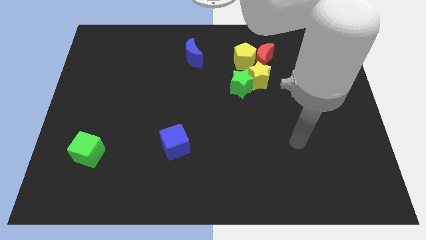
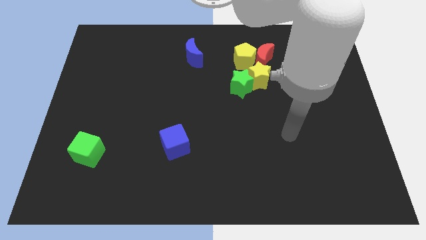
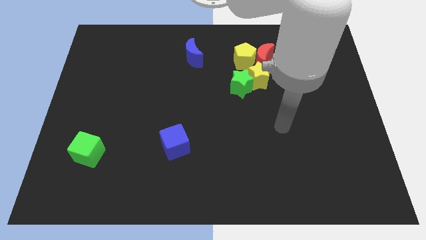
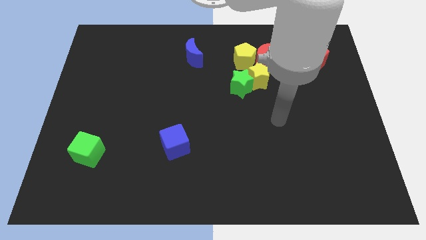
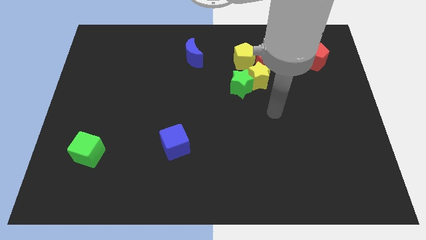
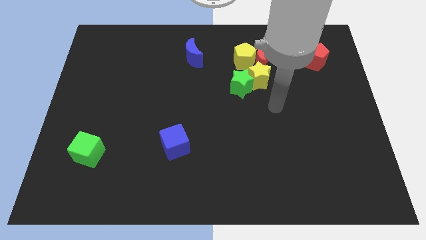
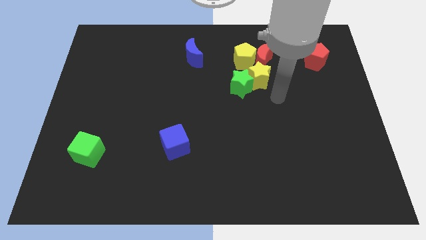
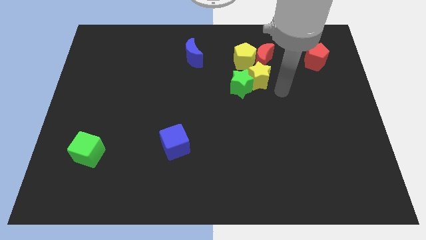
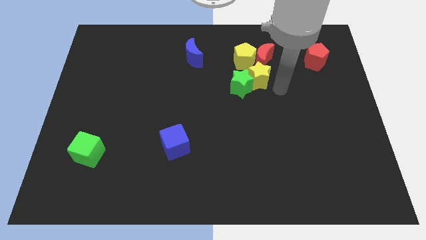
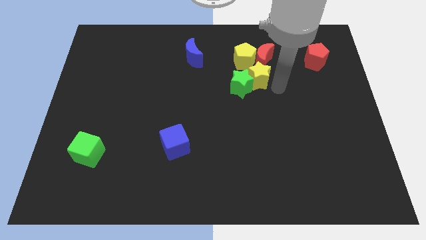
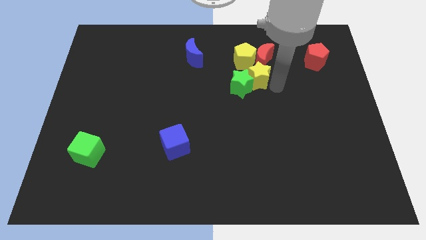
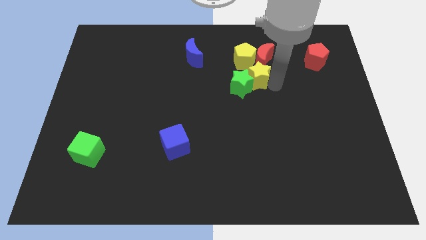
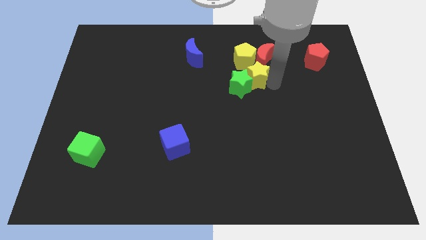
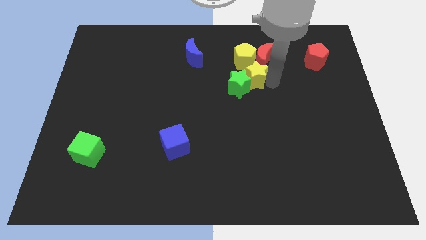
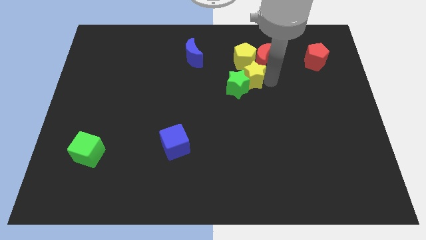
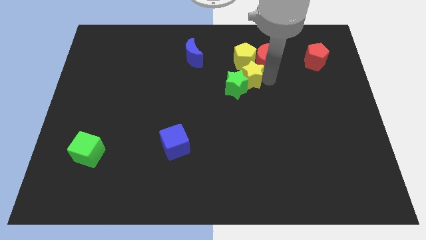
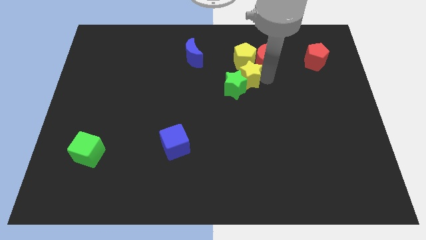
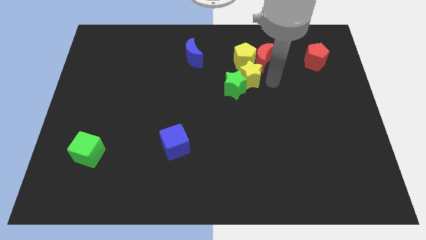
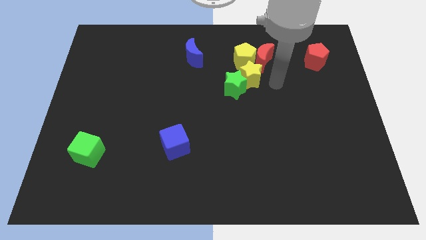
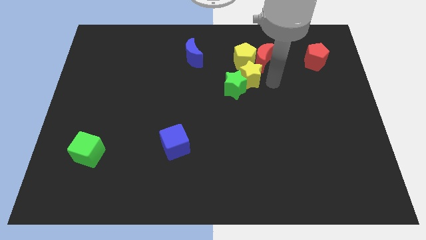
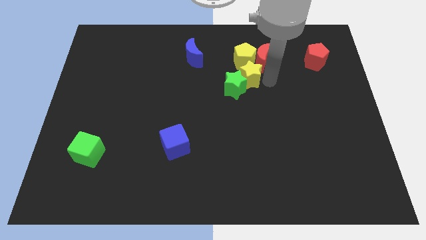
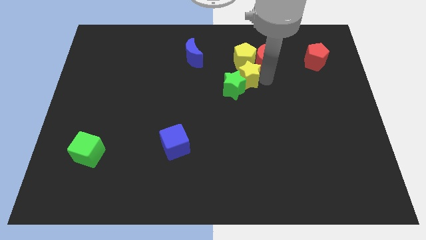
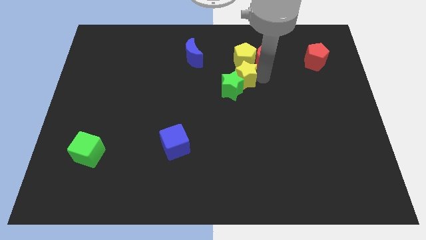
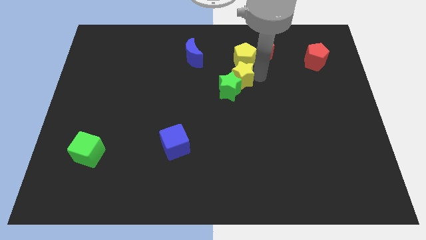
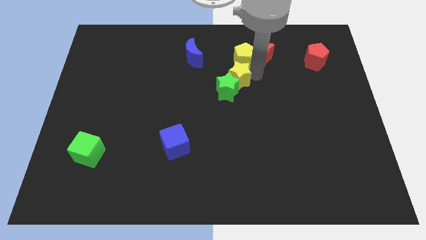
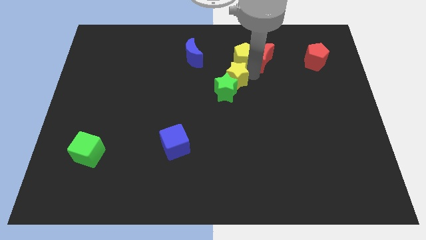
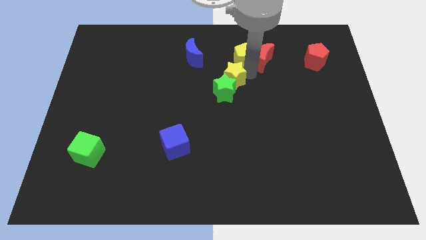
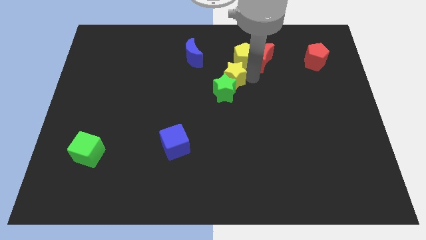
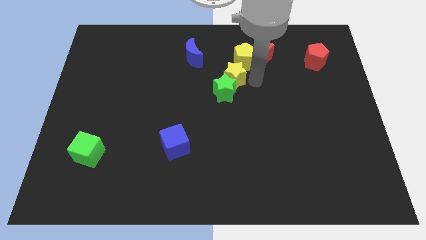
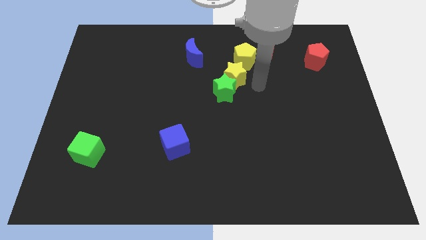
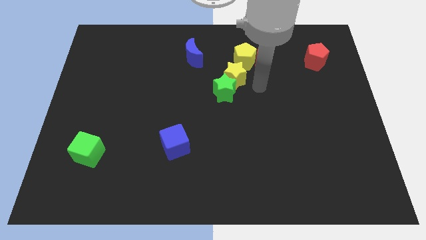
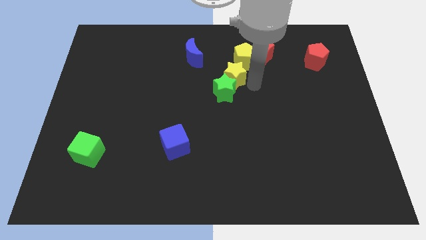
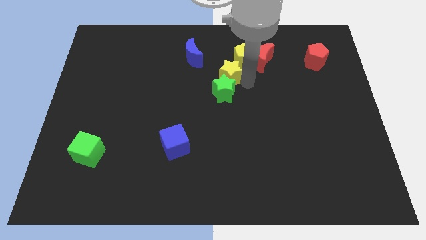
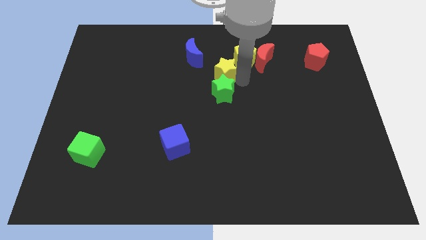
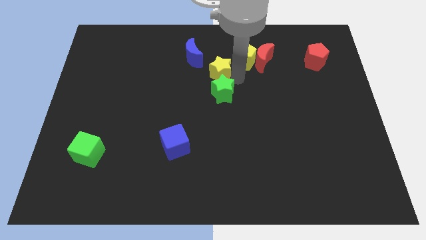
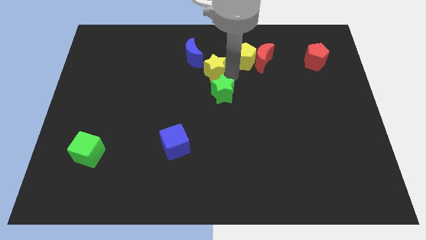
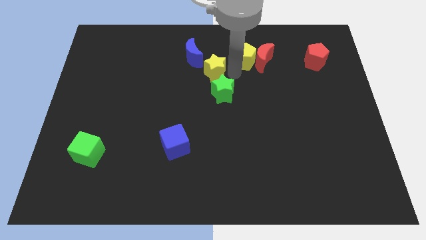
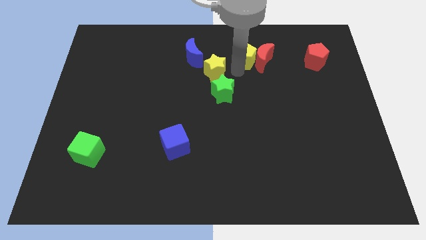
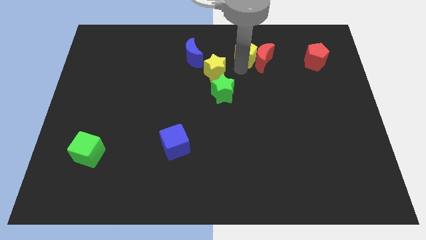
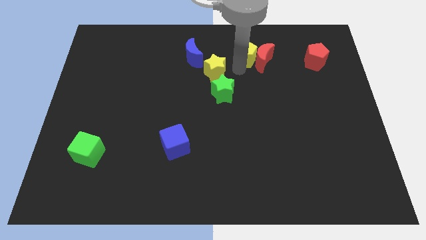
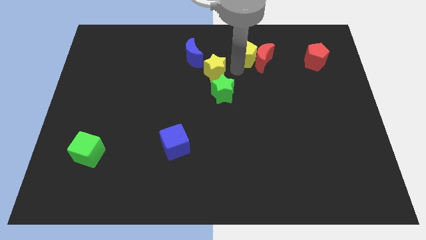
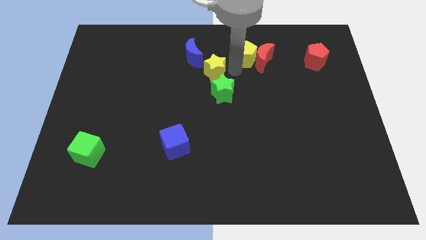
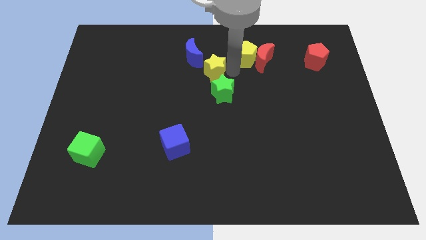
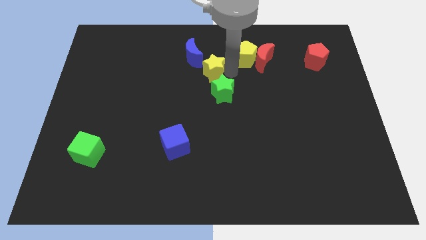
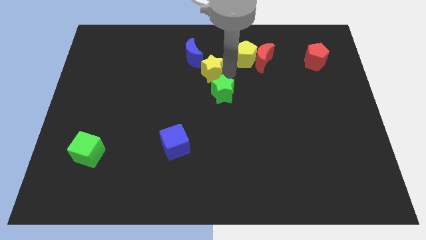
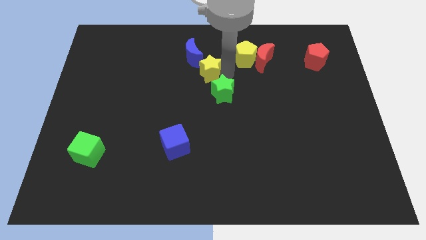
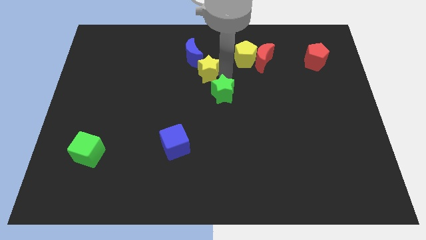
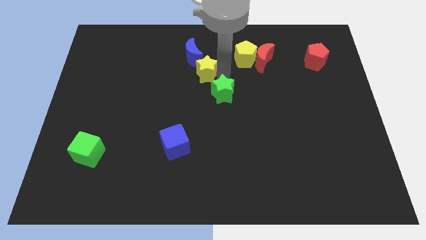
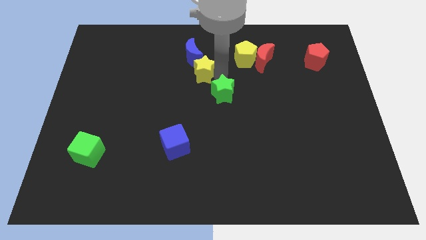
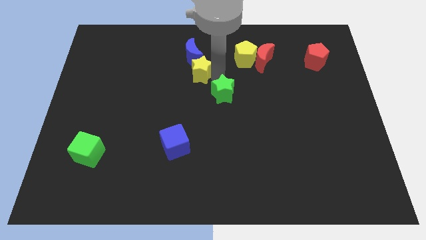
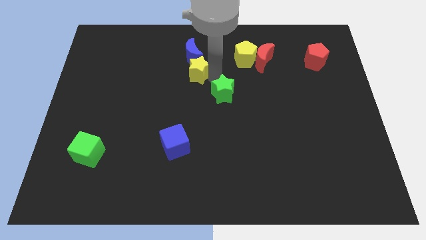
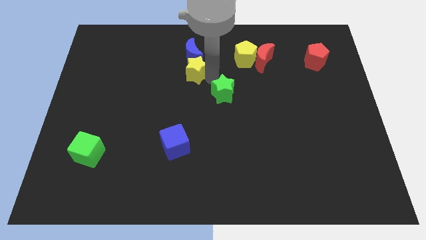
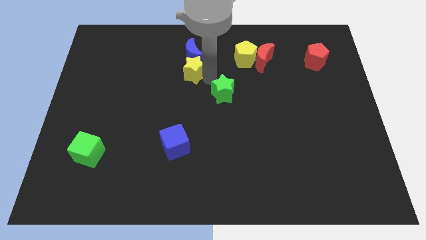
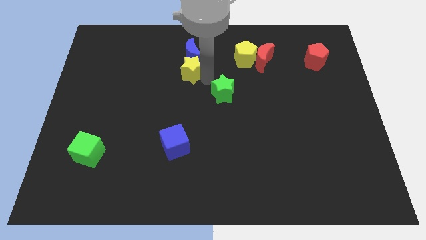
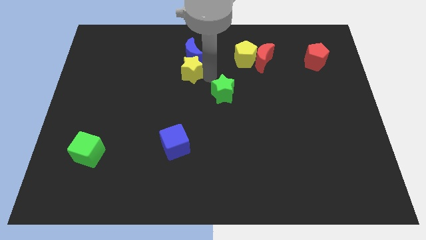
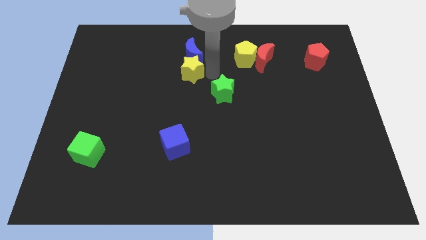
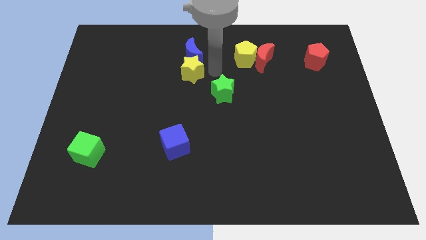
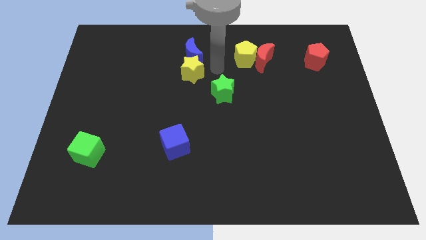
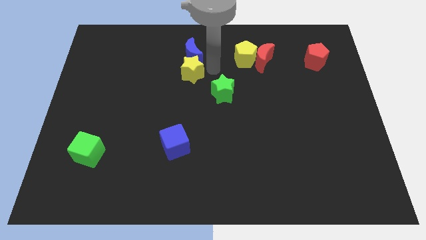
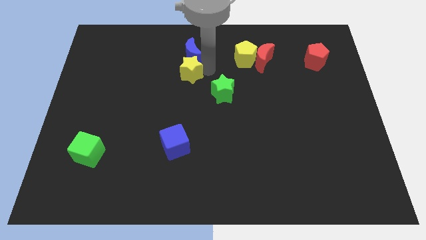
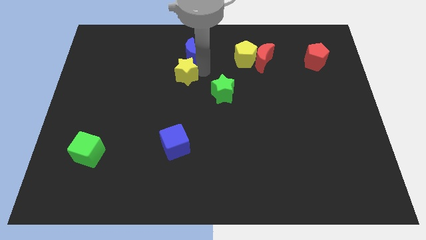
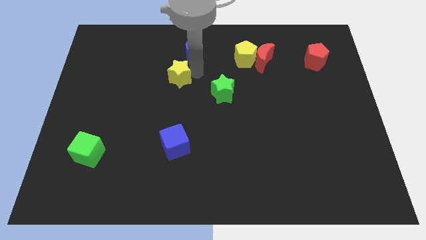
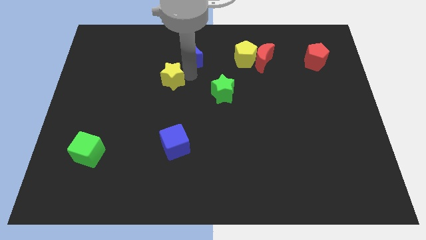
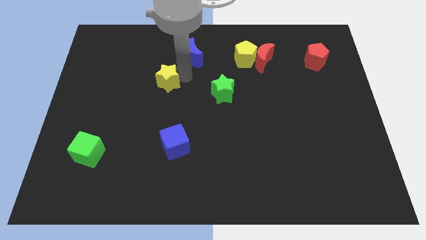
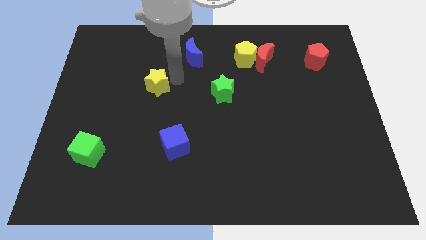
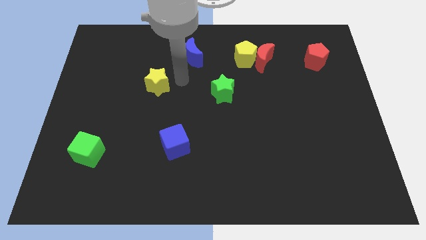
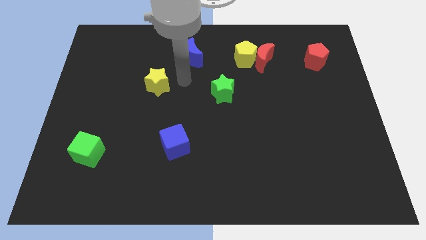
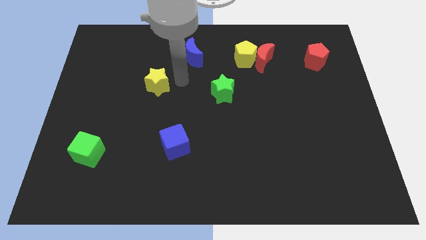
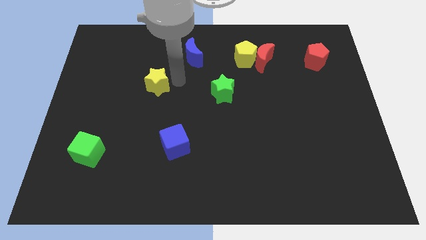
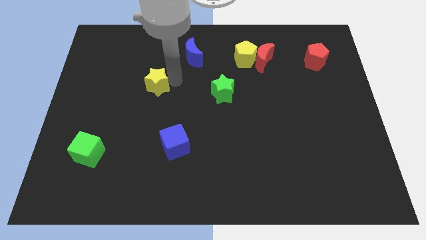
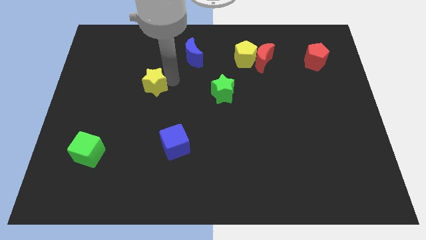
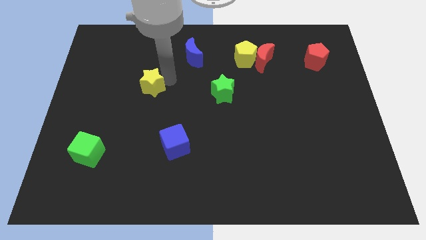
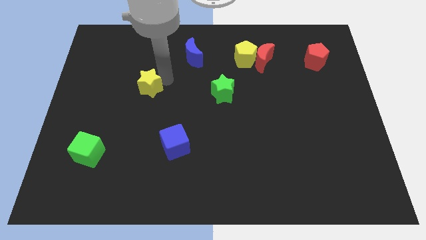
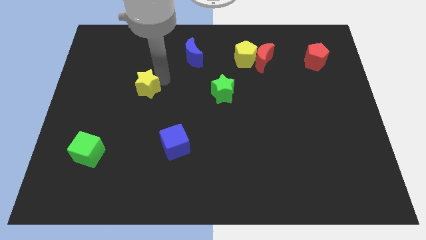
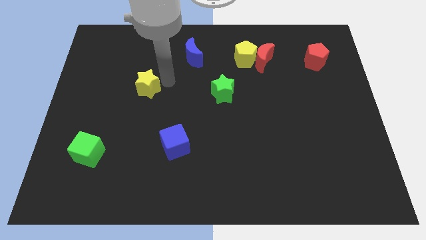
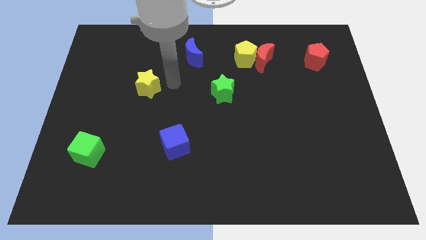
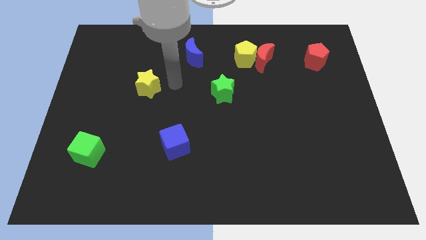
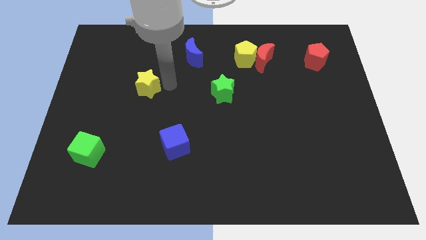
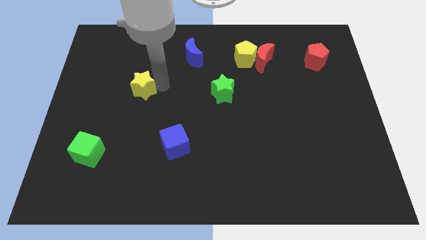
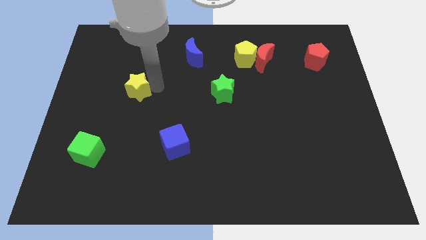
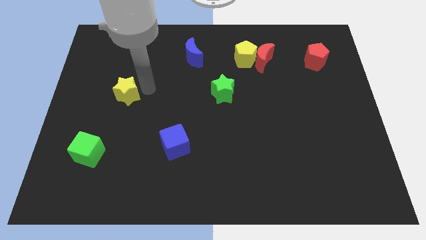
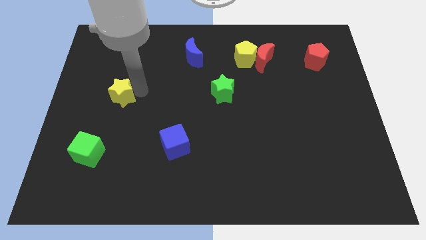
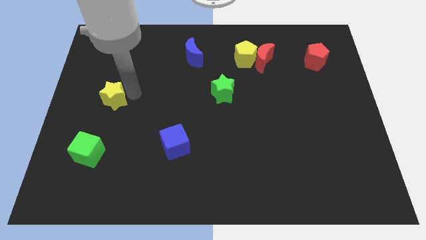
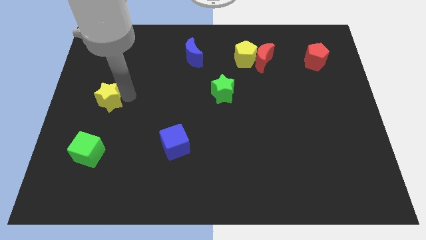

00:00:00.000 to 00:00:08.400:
put the yellow star to the left side
